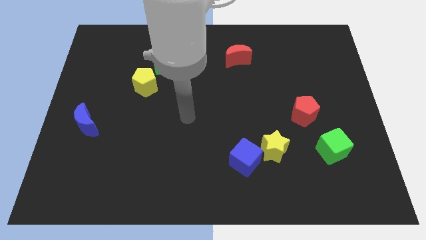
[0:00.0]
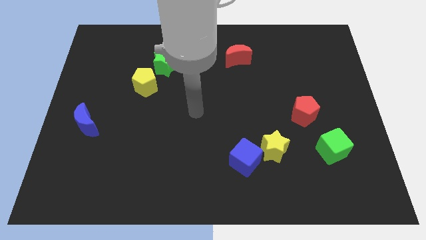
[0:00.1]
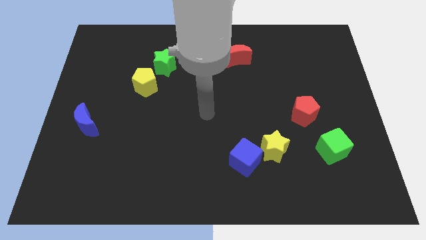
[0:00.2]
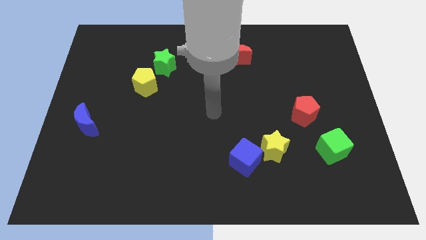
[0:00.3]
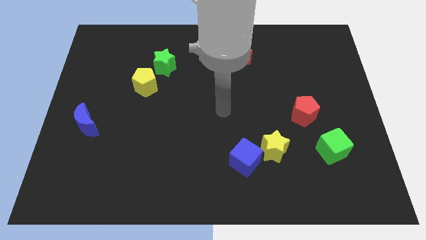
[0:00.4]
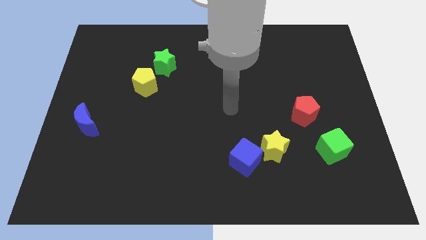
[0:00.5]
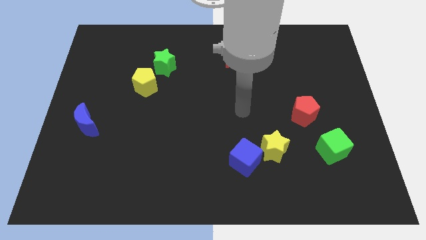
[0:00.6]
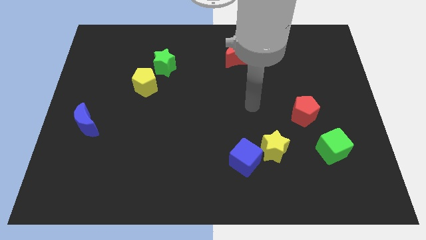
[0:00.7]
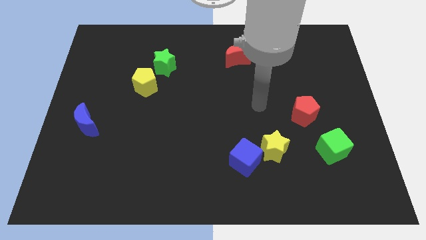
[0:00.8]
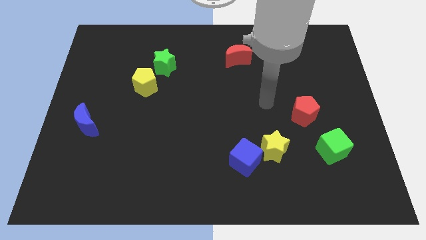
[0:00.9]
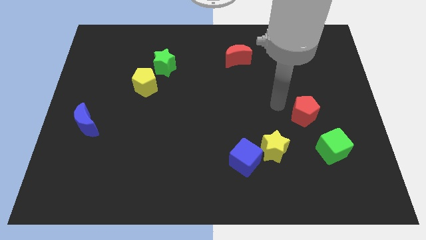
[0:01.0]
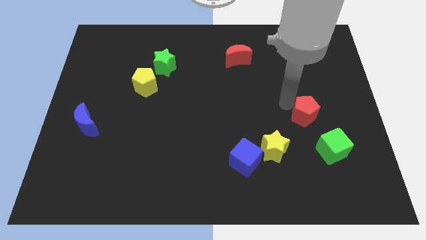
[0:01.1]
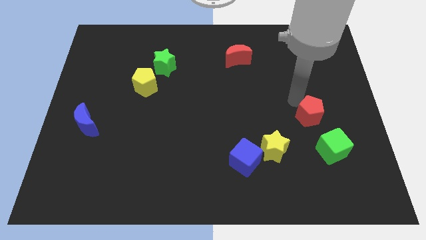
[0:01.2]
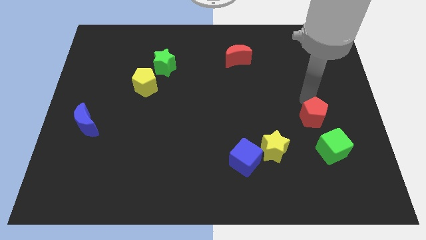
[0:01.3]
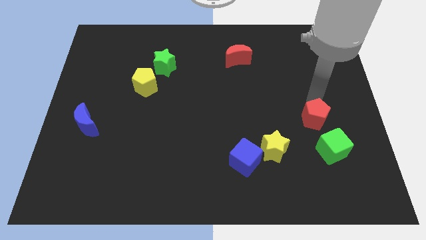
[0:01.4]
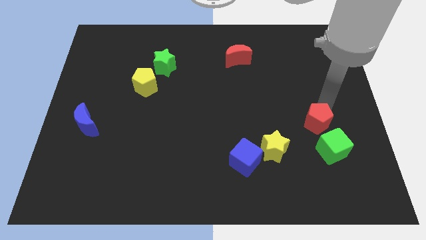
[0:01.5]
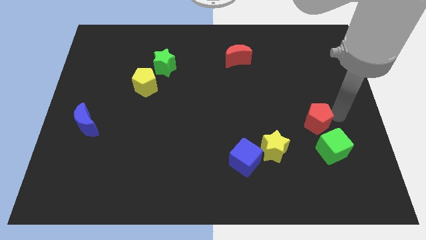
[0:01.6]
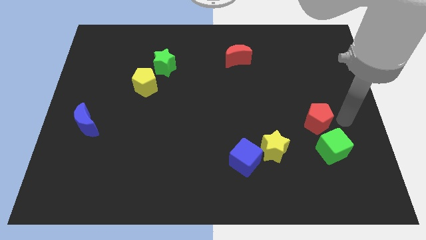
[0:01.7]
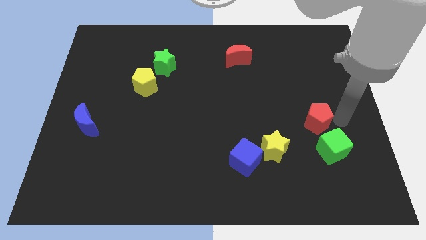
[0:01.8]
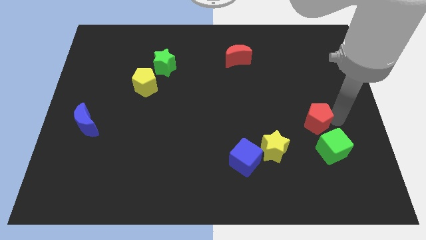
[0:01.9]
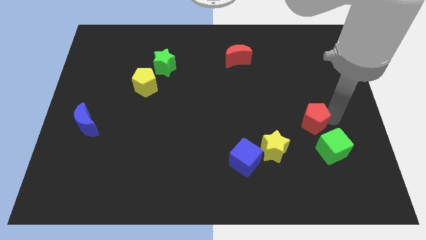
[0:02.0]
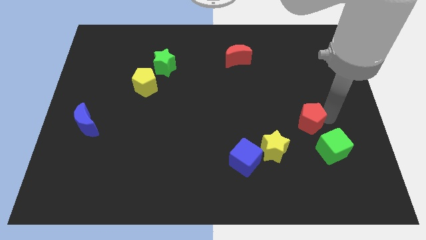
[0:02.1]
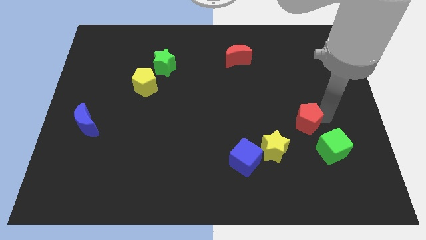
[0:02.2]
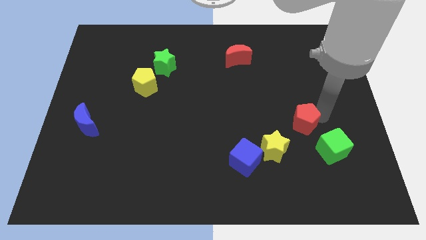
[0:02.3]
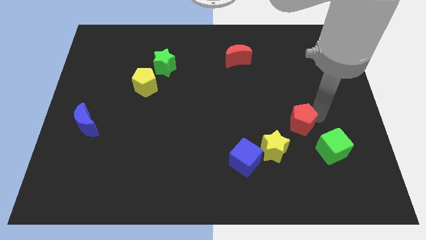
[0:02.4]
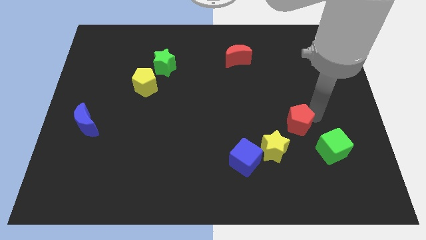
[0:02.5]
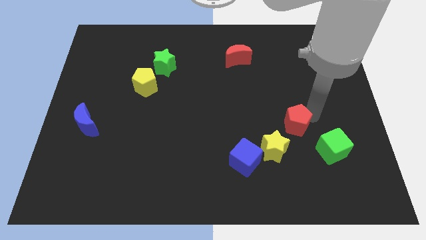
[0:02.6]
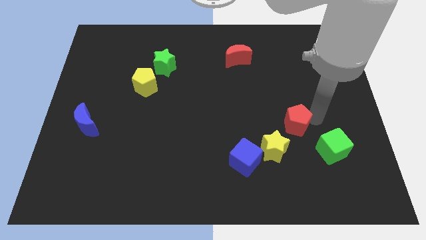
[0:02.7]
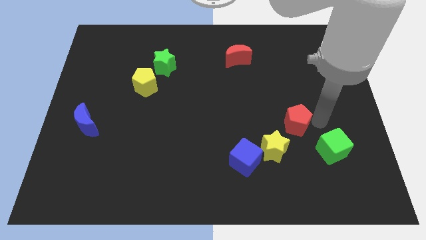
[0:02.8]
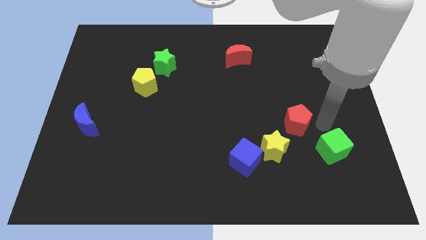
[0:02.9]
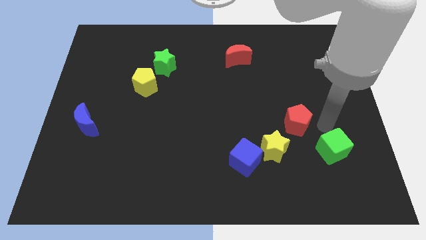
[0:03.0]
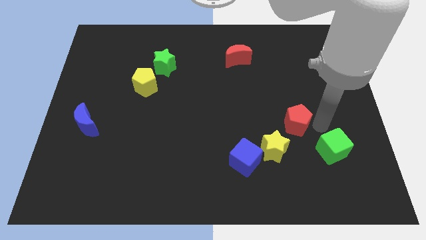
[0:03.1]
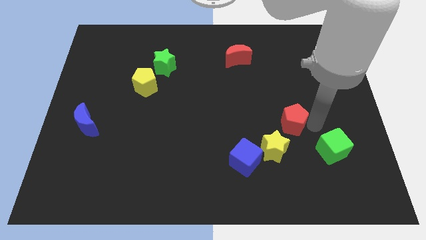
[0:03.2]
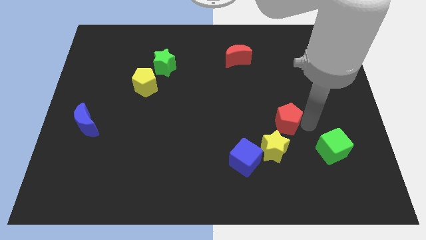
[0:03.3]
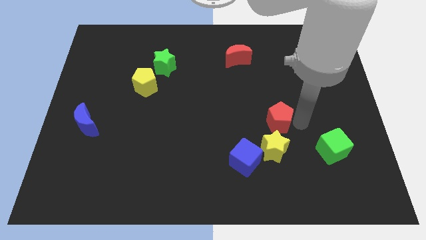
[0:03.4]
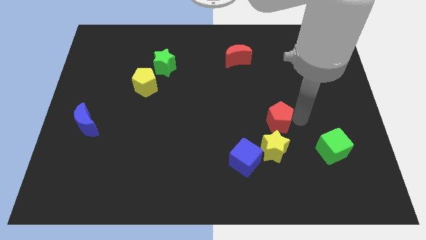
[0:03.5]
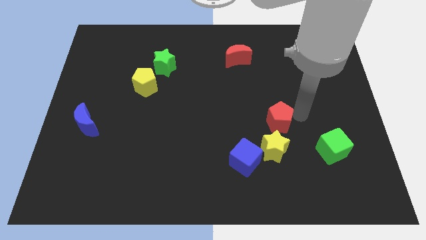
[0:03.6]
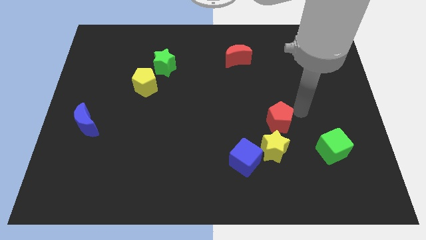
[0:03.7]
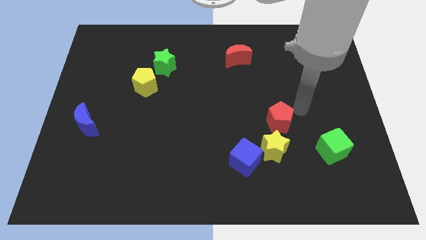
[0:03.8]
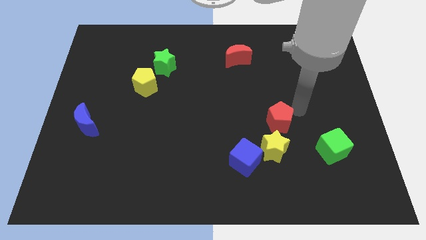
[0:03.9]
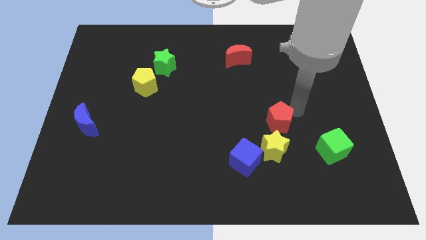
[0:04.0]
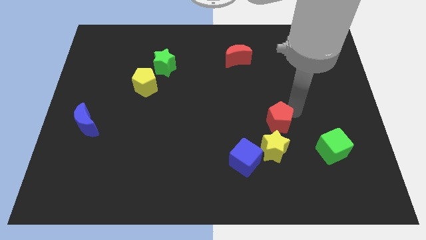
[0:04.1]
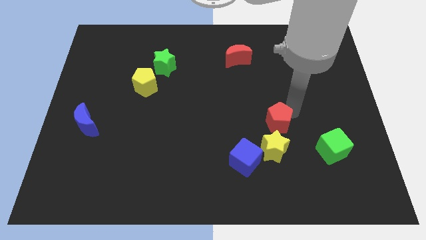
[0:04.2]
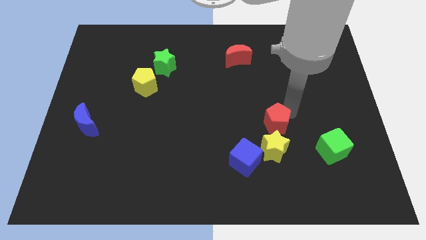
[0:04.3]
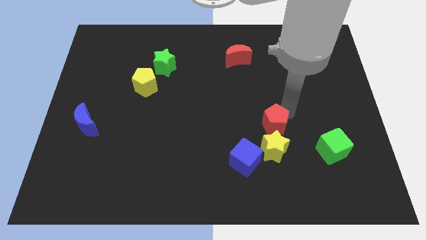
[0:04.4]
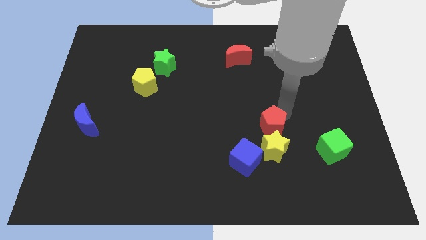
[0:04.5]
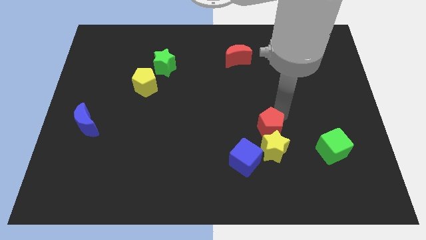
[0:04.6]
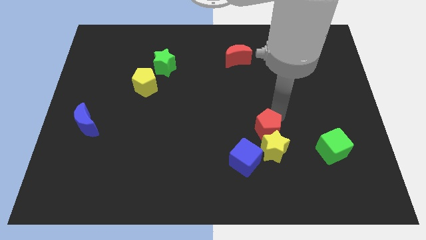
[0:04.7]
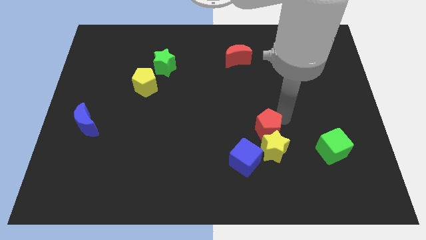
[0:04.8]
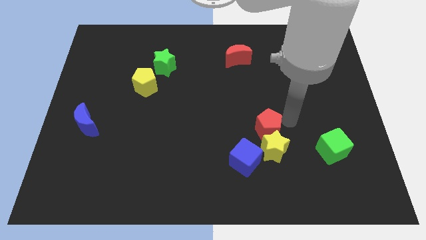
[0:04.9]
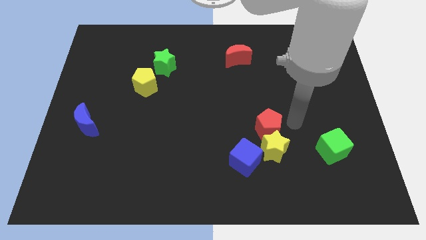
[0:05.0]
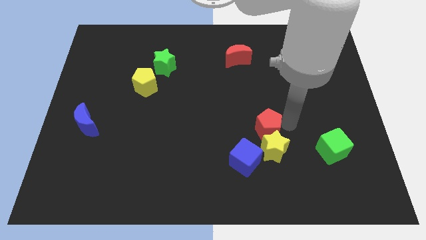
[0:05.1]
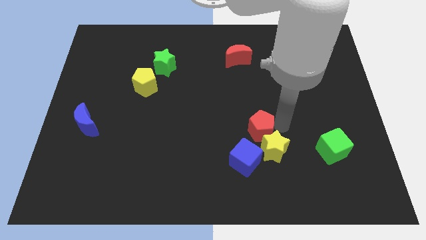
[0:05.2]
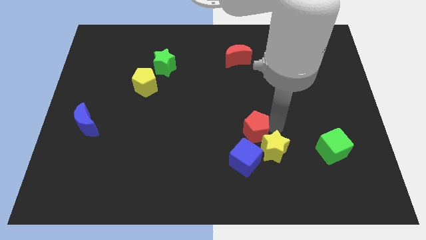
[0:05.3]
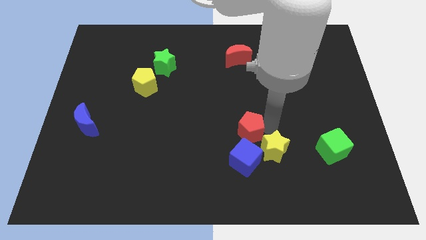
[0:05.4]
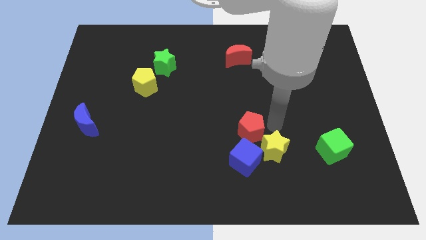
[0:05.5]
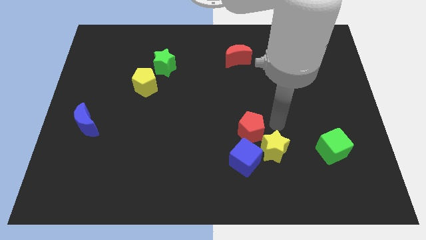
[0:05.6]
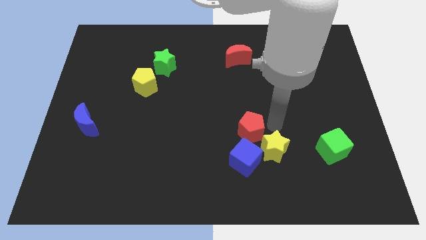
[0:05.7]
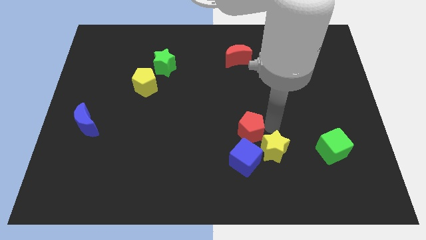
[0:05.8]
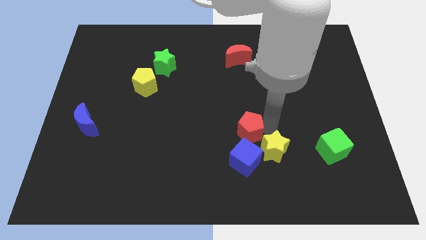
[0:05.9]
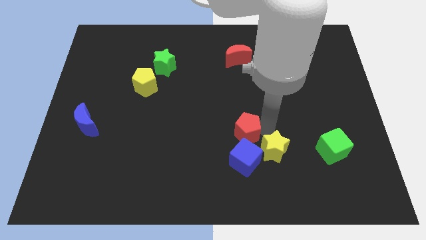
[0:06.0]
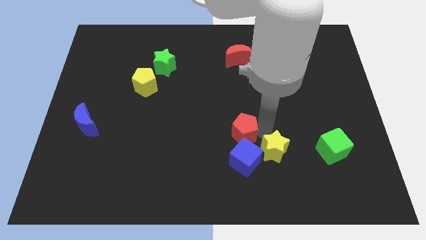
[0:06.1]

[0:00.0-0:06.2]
push the red pentagon to the top left side of the blue cube

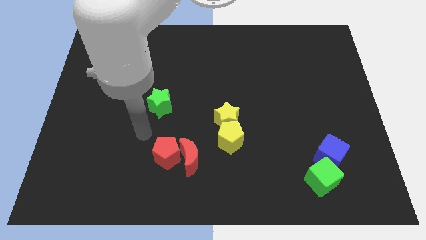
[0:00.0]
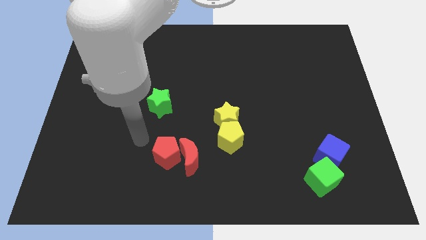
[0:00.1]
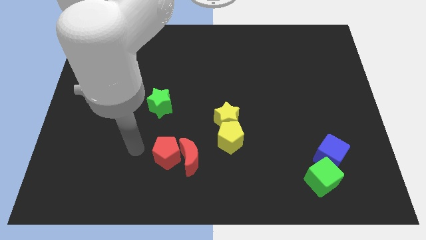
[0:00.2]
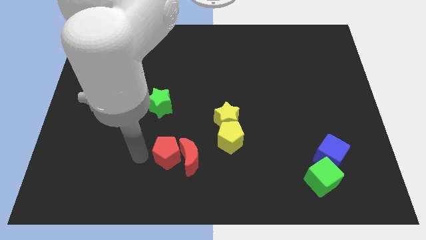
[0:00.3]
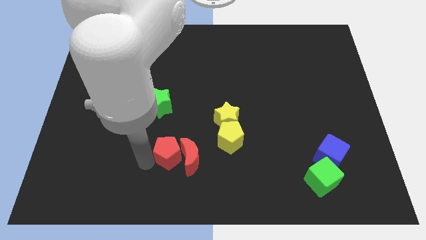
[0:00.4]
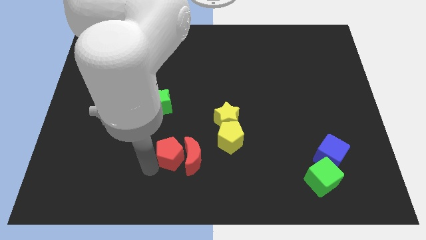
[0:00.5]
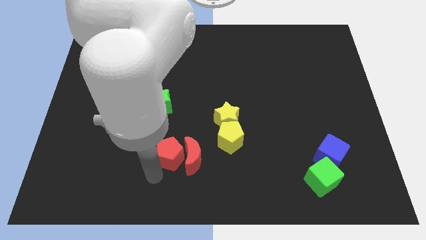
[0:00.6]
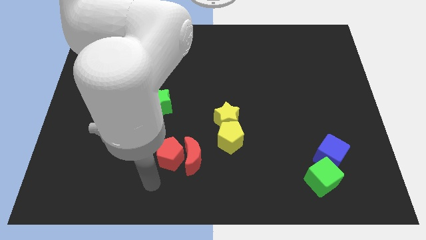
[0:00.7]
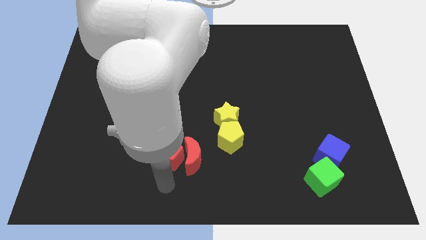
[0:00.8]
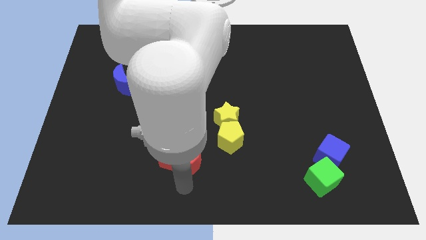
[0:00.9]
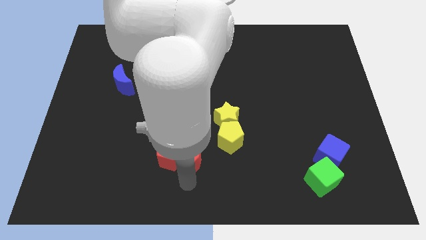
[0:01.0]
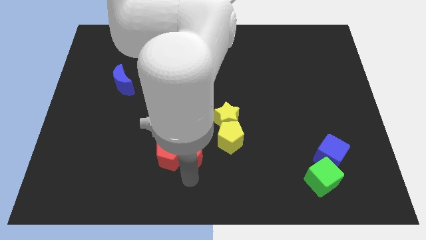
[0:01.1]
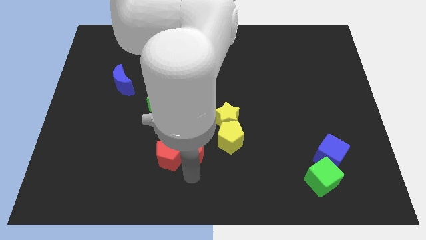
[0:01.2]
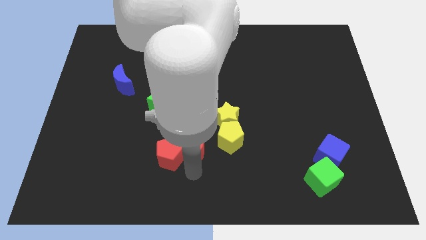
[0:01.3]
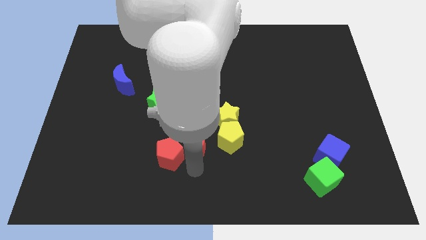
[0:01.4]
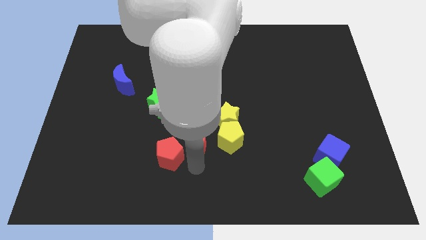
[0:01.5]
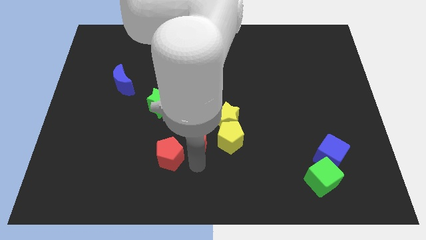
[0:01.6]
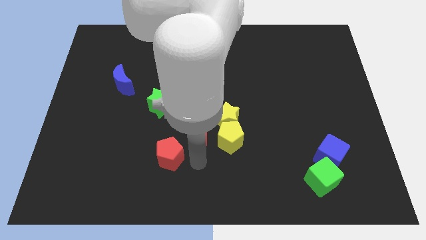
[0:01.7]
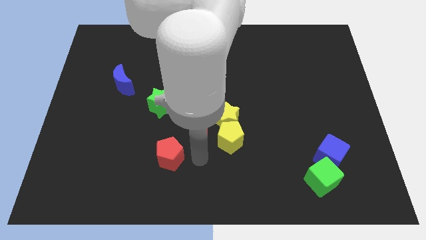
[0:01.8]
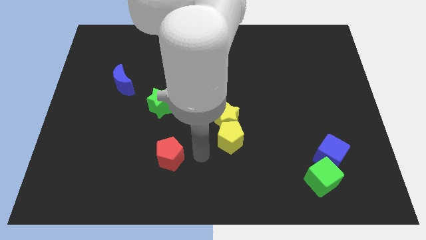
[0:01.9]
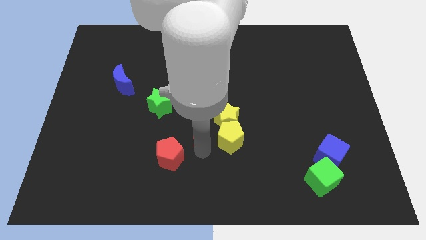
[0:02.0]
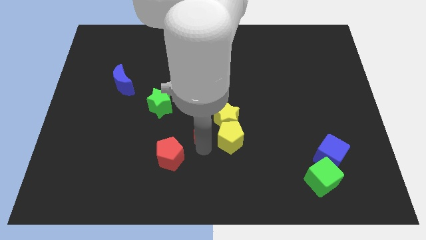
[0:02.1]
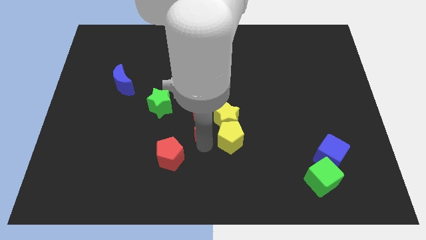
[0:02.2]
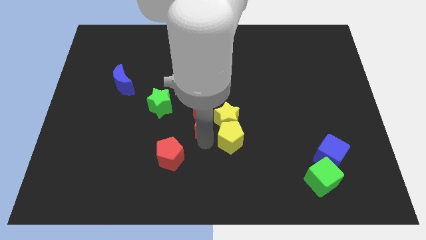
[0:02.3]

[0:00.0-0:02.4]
move the red moon to the right of the green star
